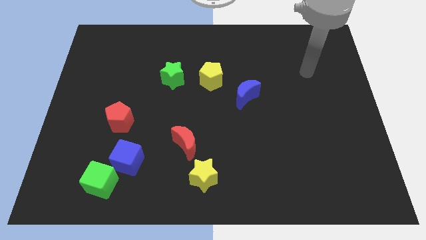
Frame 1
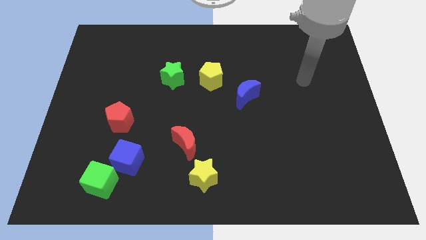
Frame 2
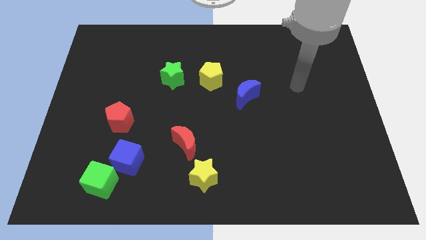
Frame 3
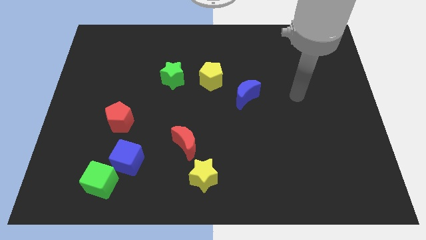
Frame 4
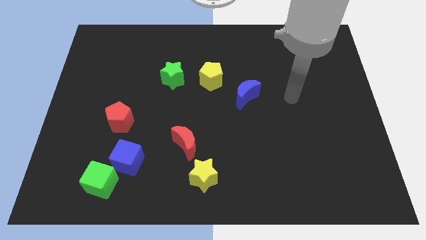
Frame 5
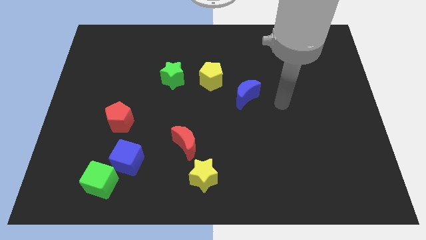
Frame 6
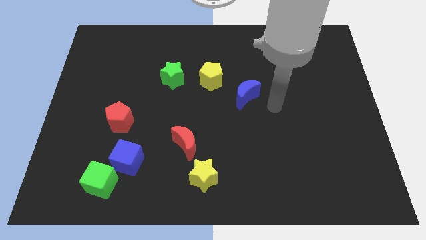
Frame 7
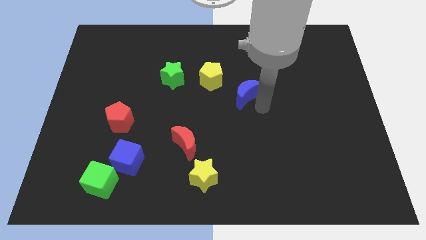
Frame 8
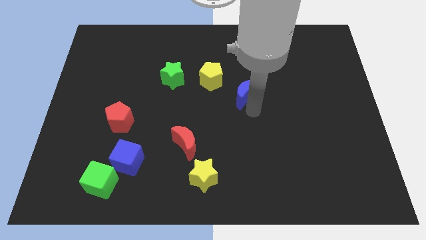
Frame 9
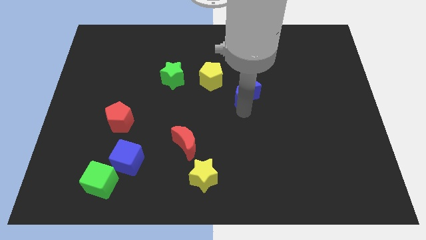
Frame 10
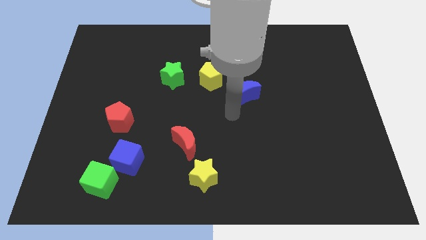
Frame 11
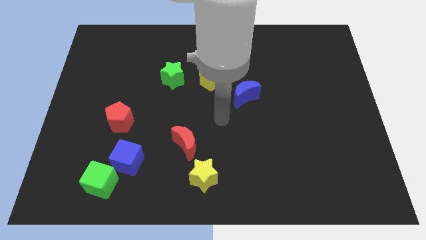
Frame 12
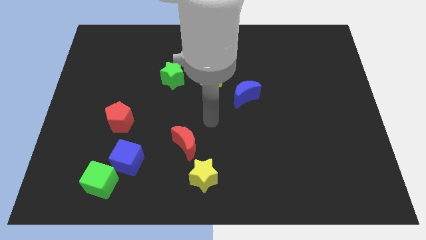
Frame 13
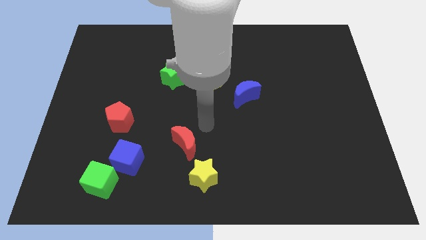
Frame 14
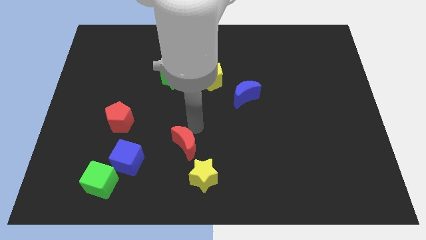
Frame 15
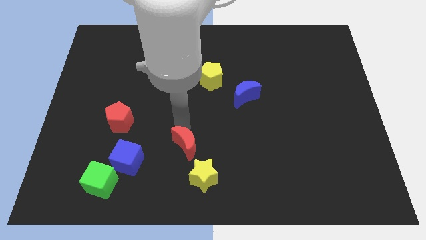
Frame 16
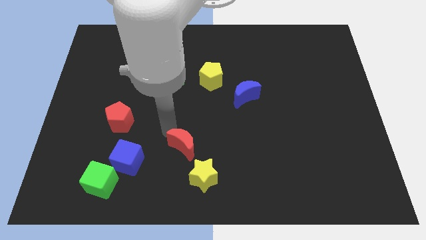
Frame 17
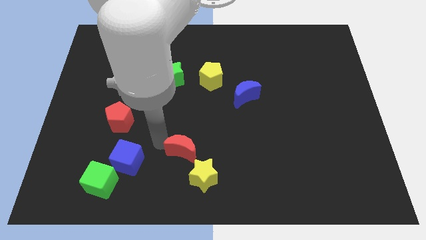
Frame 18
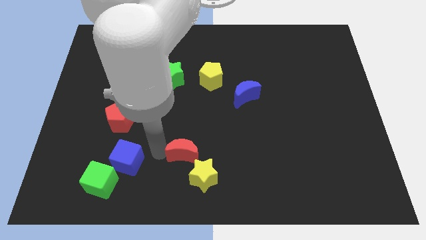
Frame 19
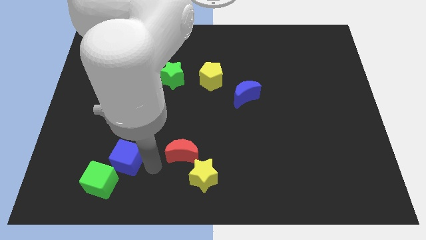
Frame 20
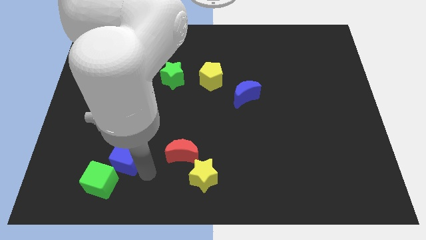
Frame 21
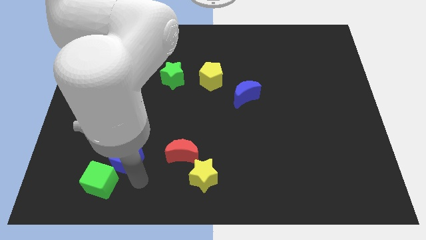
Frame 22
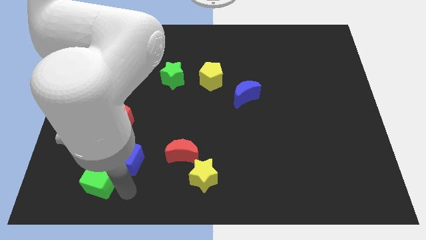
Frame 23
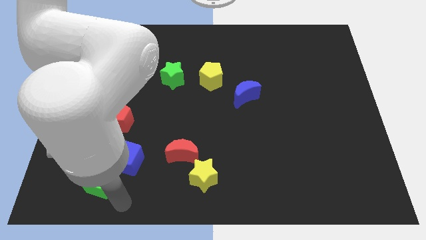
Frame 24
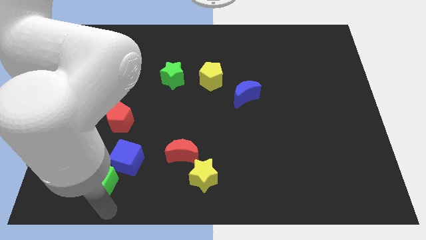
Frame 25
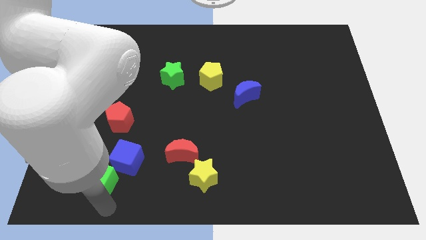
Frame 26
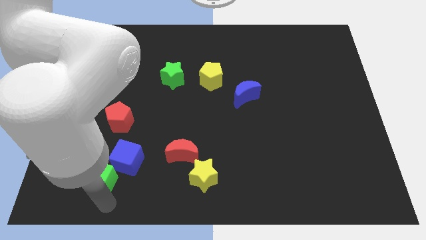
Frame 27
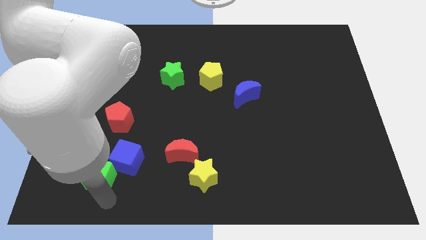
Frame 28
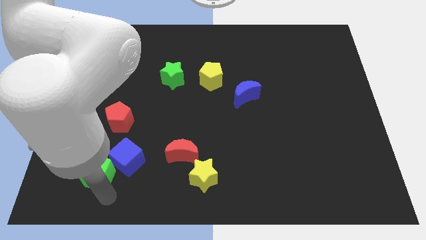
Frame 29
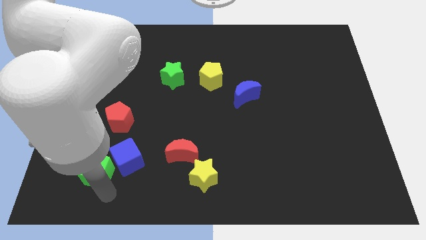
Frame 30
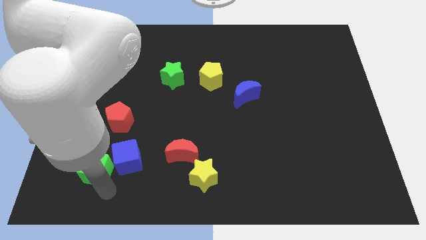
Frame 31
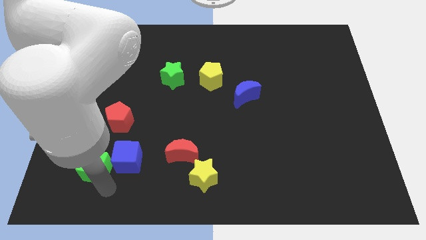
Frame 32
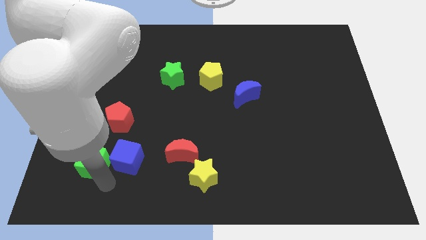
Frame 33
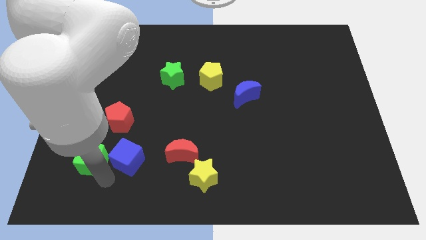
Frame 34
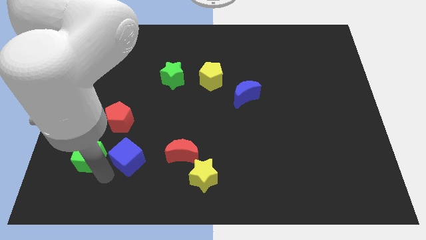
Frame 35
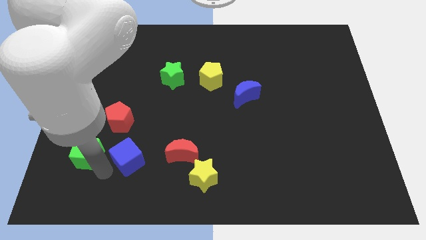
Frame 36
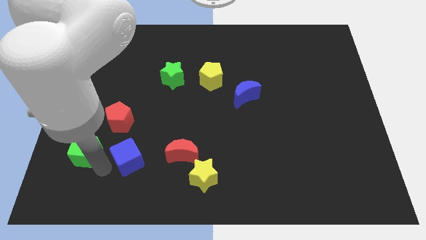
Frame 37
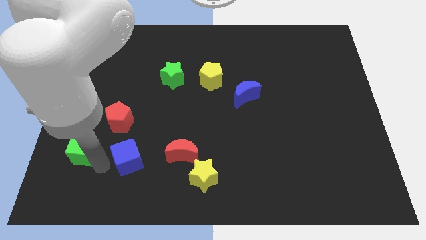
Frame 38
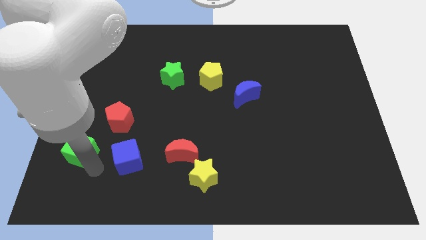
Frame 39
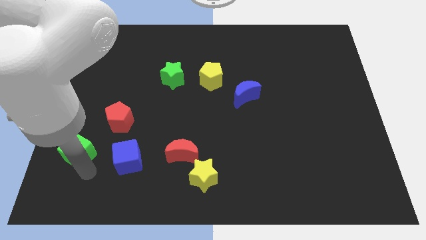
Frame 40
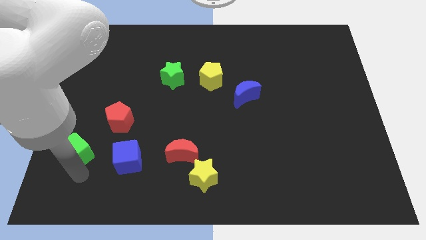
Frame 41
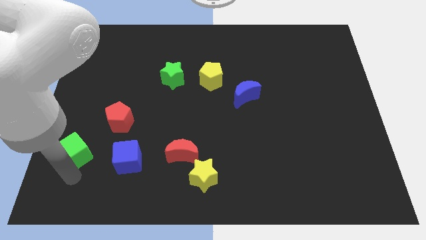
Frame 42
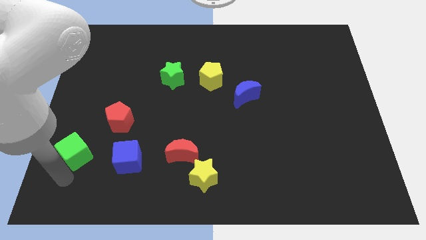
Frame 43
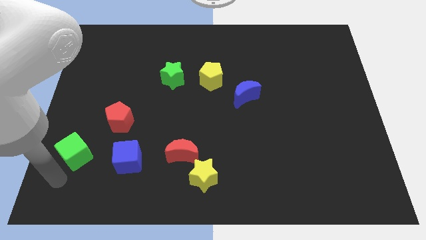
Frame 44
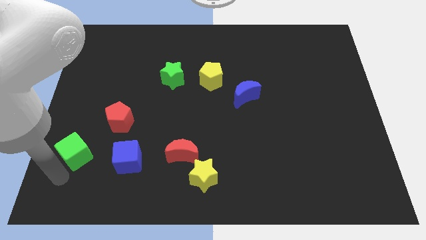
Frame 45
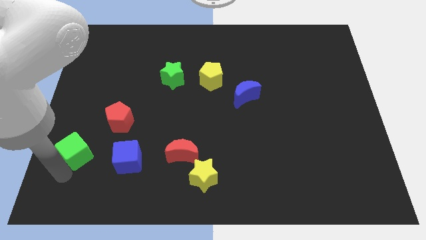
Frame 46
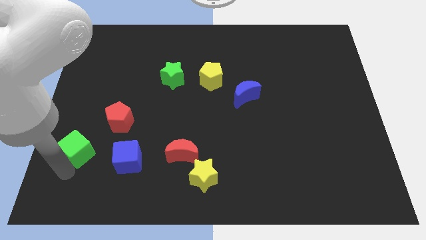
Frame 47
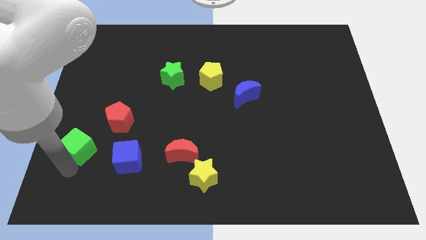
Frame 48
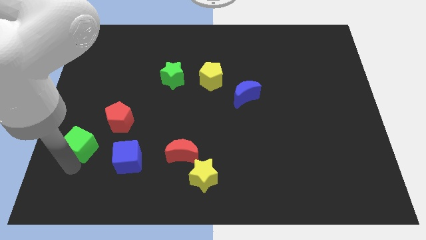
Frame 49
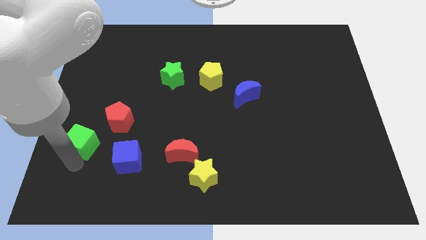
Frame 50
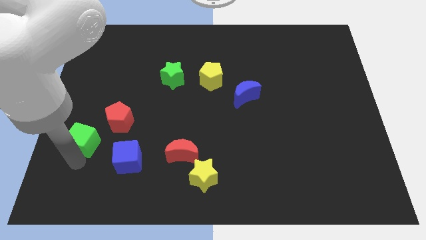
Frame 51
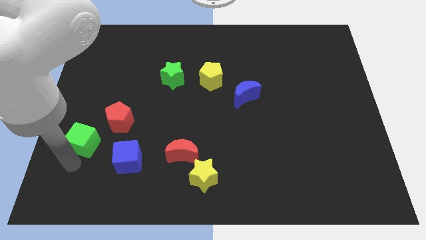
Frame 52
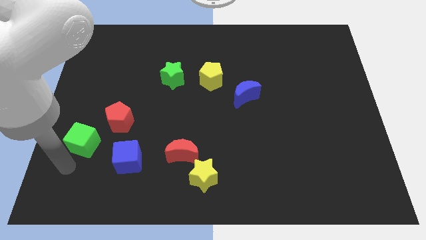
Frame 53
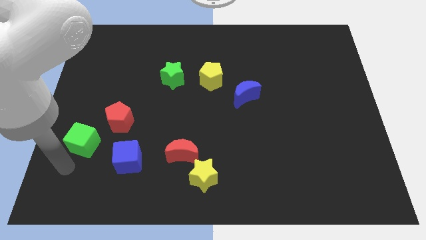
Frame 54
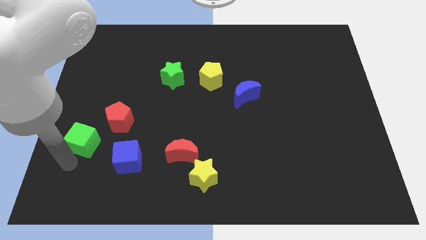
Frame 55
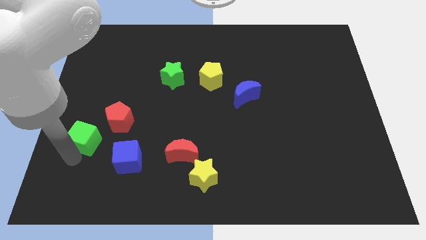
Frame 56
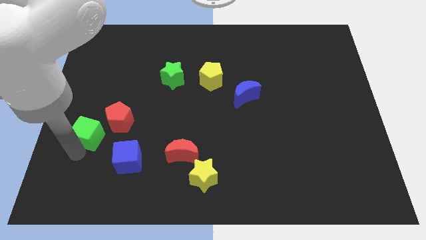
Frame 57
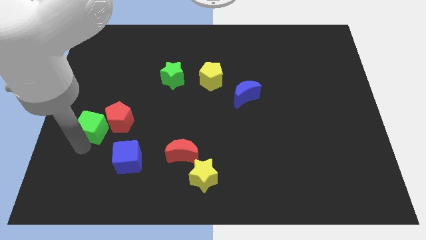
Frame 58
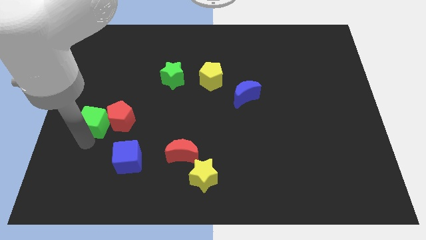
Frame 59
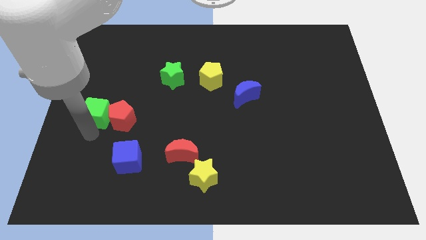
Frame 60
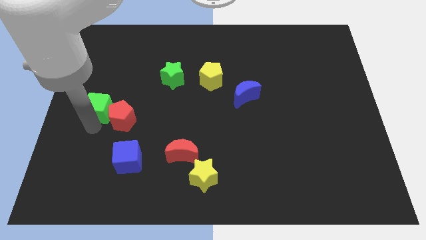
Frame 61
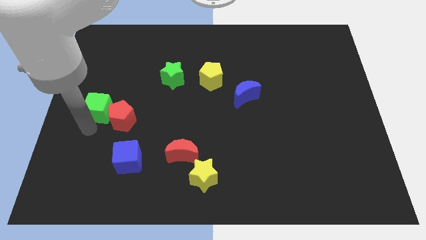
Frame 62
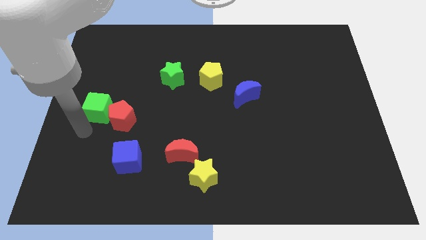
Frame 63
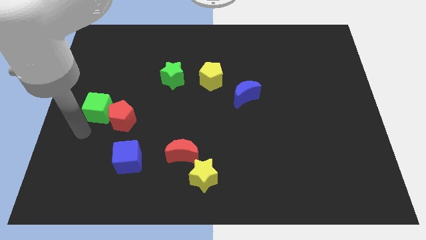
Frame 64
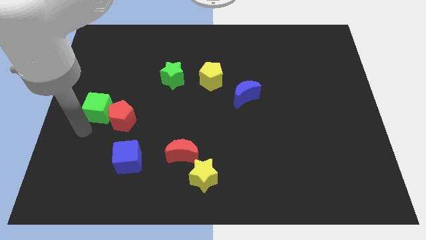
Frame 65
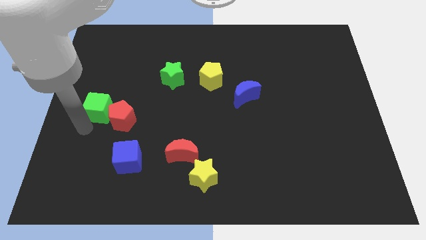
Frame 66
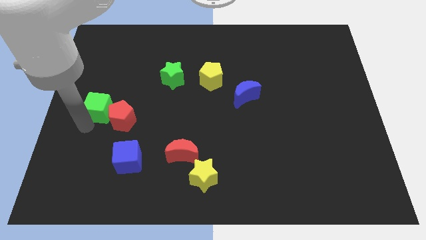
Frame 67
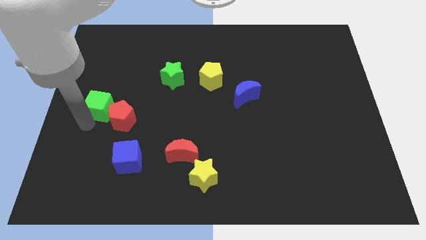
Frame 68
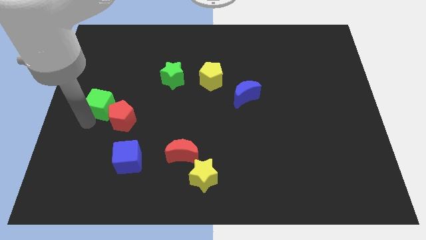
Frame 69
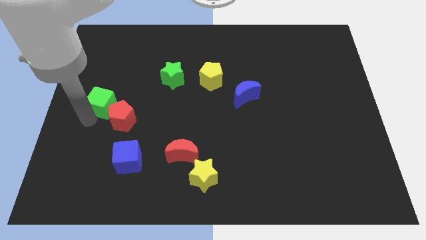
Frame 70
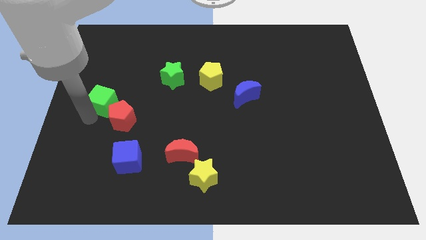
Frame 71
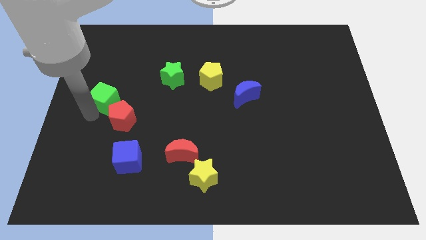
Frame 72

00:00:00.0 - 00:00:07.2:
slide the green cube to the top side of the red pentagon
